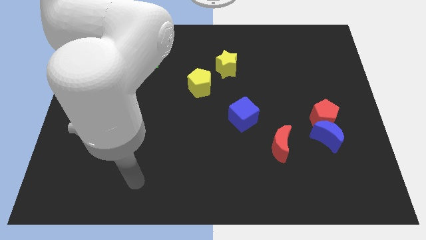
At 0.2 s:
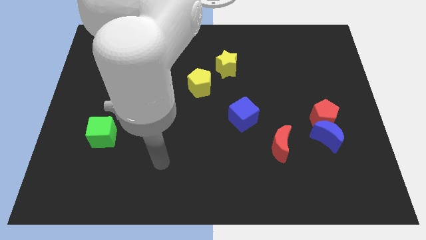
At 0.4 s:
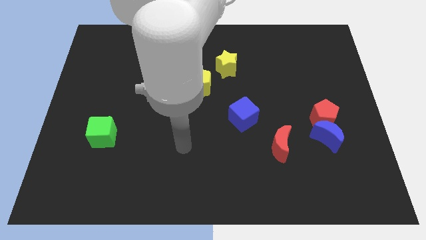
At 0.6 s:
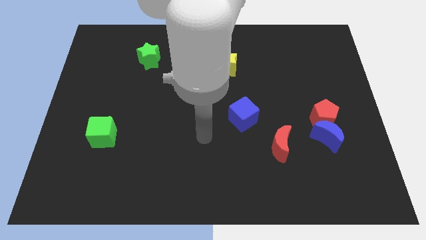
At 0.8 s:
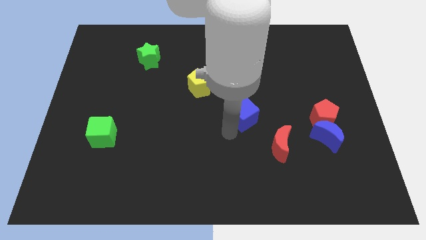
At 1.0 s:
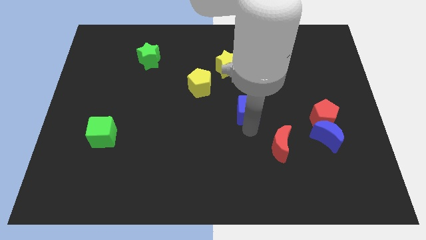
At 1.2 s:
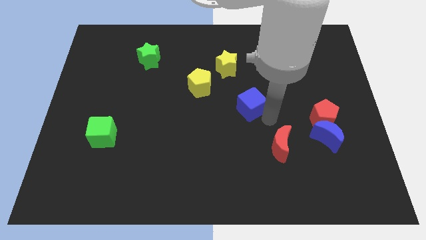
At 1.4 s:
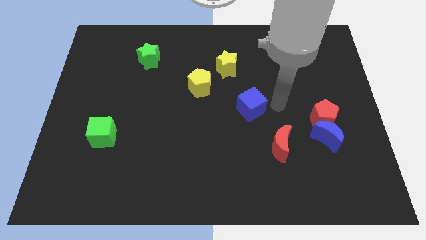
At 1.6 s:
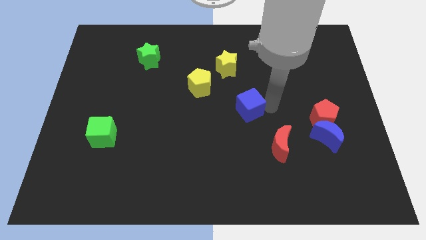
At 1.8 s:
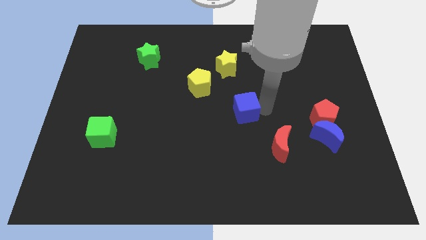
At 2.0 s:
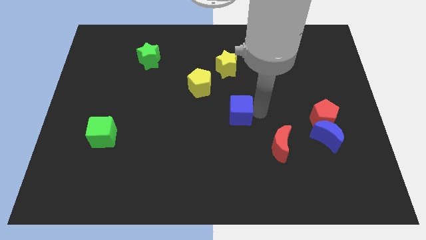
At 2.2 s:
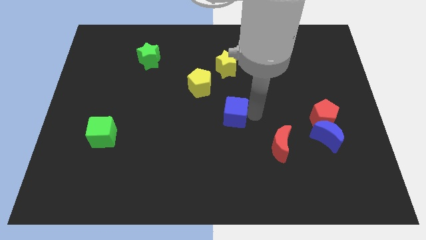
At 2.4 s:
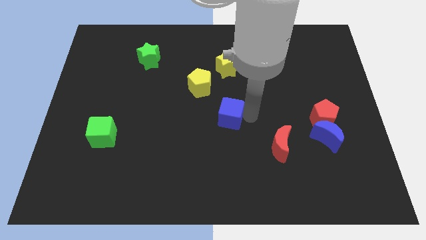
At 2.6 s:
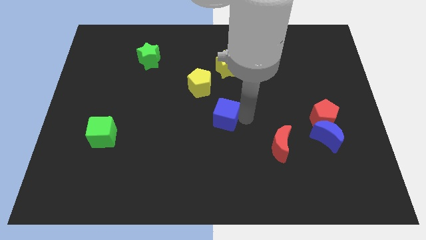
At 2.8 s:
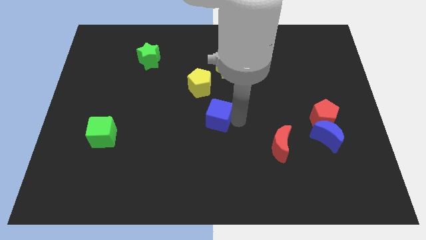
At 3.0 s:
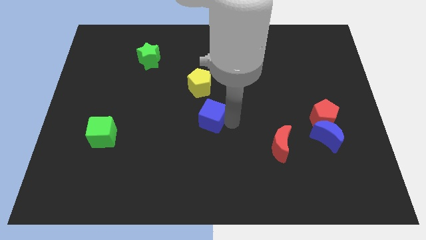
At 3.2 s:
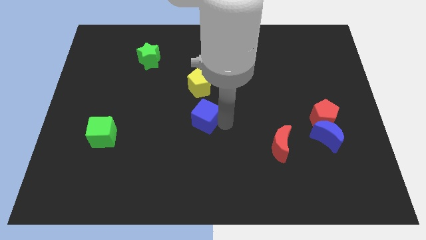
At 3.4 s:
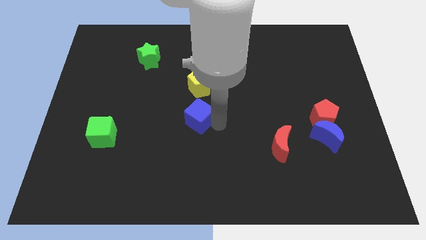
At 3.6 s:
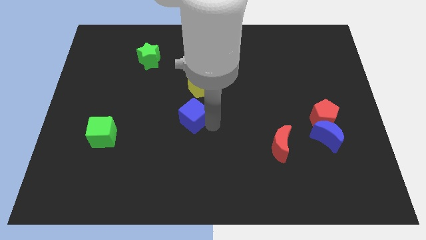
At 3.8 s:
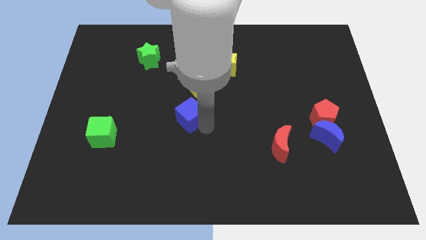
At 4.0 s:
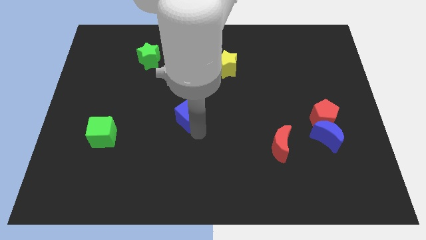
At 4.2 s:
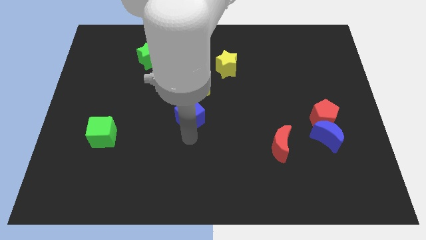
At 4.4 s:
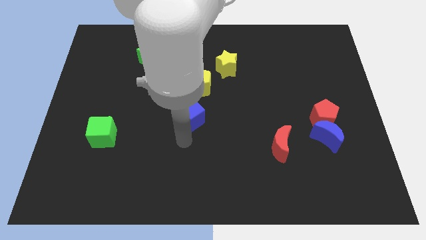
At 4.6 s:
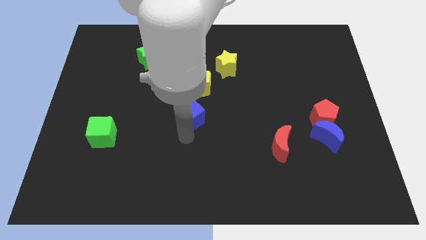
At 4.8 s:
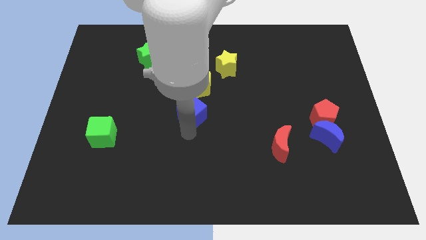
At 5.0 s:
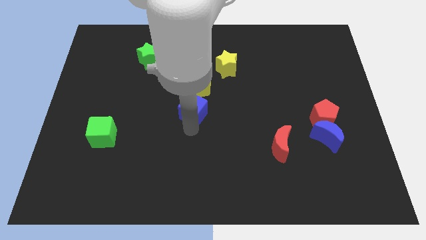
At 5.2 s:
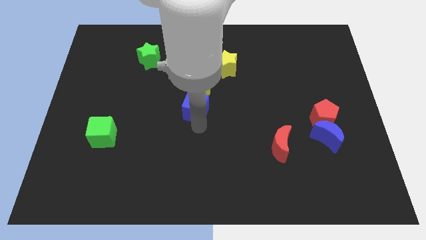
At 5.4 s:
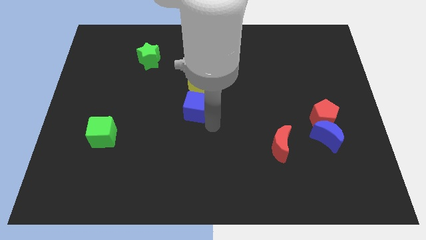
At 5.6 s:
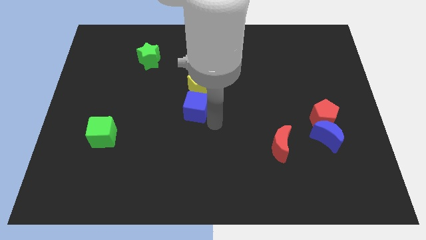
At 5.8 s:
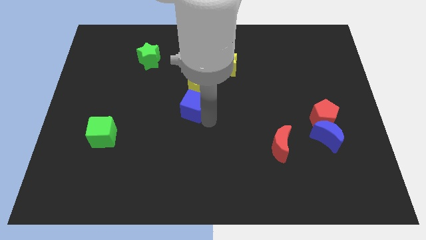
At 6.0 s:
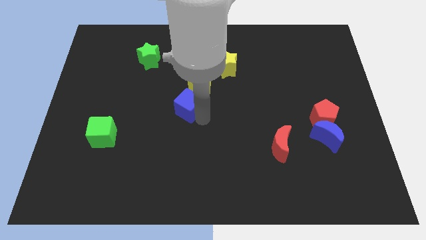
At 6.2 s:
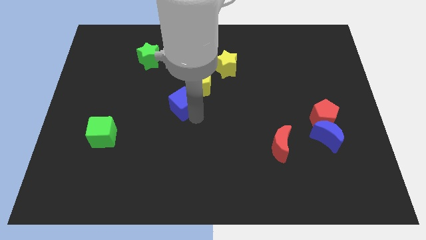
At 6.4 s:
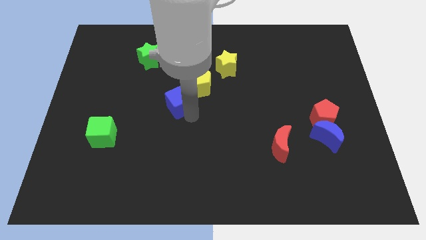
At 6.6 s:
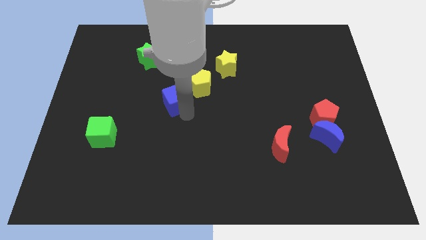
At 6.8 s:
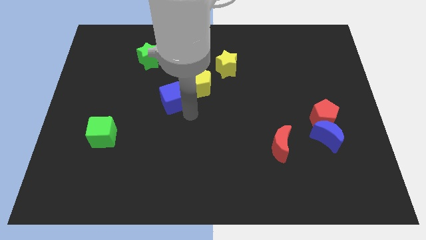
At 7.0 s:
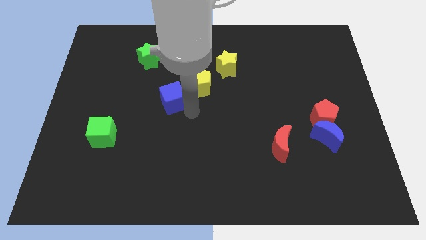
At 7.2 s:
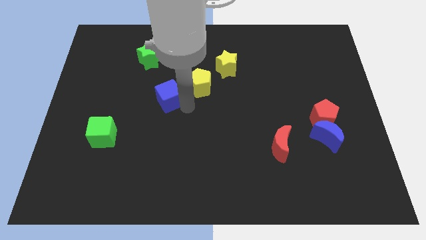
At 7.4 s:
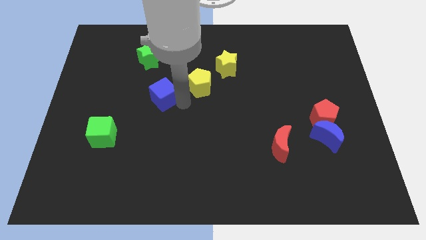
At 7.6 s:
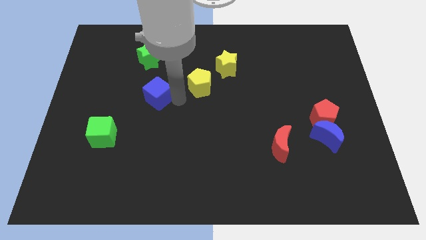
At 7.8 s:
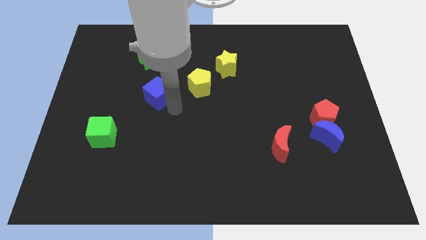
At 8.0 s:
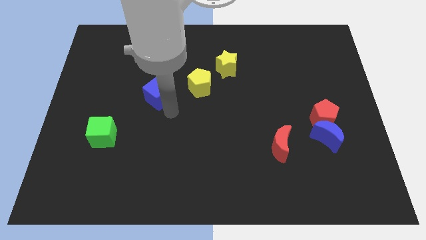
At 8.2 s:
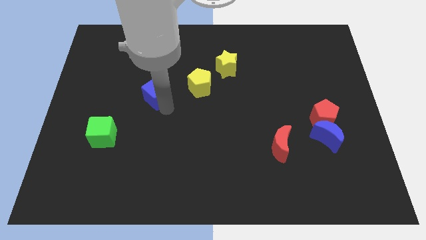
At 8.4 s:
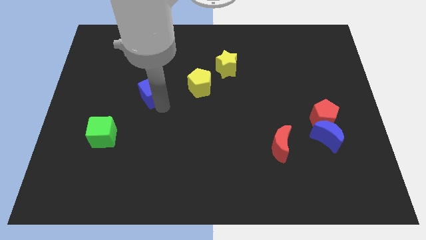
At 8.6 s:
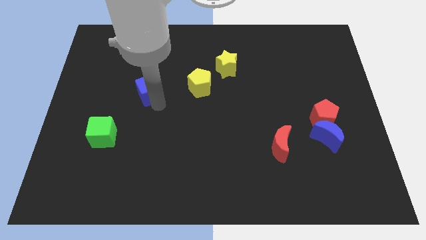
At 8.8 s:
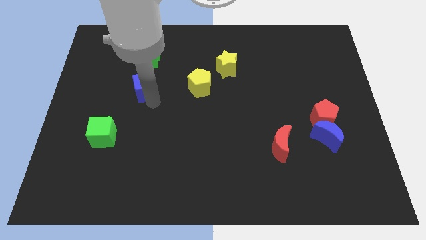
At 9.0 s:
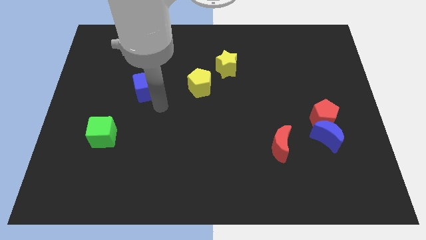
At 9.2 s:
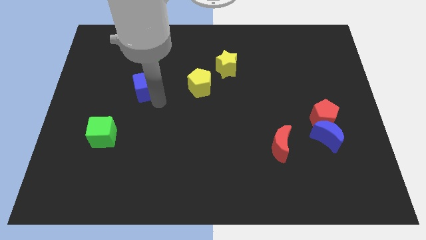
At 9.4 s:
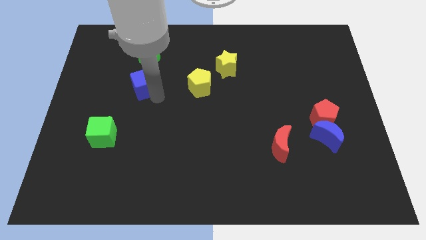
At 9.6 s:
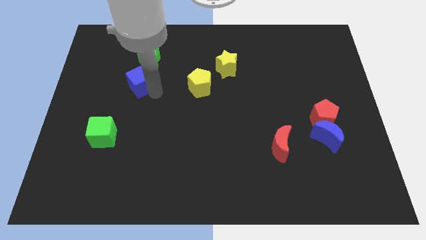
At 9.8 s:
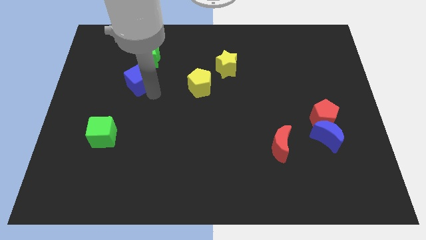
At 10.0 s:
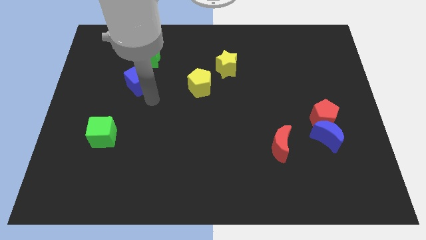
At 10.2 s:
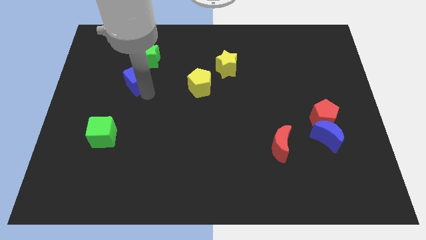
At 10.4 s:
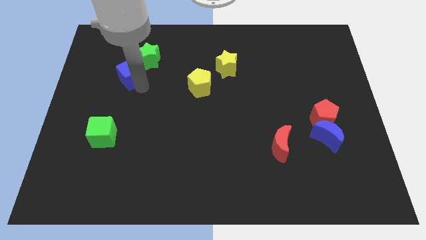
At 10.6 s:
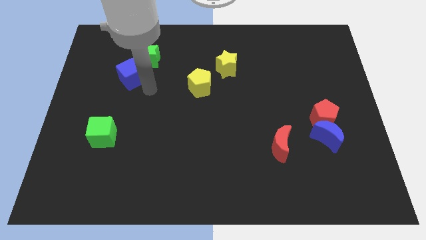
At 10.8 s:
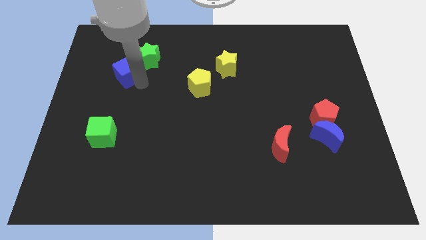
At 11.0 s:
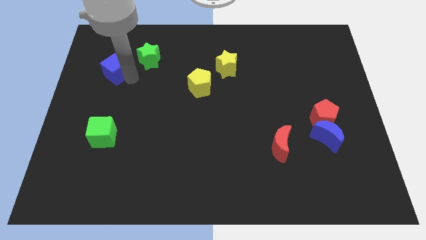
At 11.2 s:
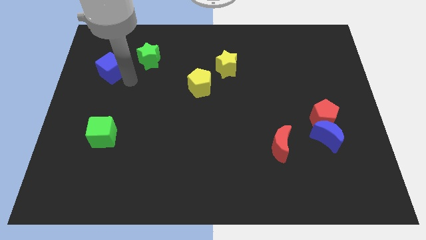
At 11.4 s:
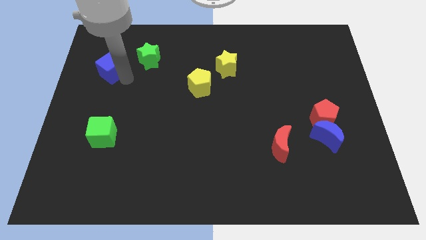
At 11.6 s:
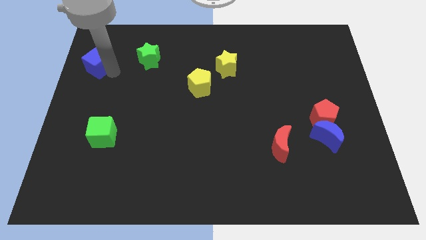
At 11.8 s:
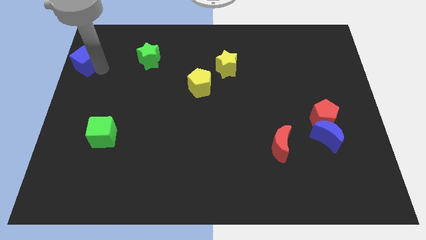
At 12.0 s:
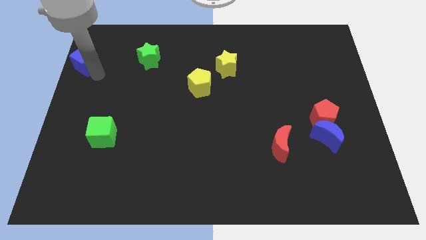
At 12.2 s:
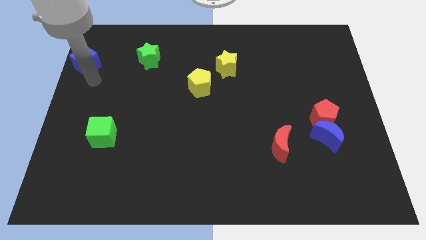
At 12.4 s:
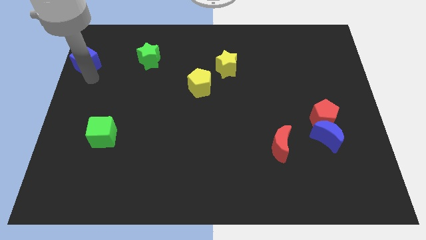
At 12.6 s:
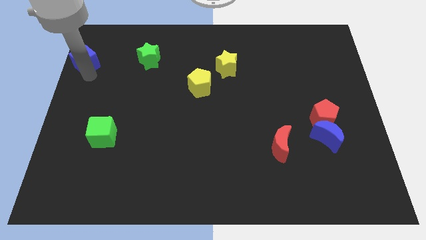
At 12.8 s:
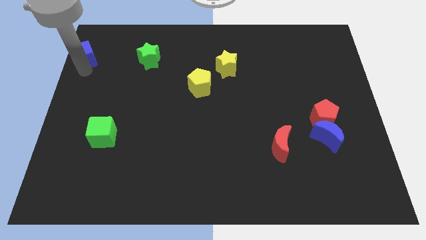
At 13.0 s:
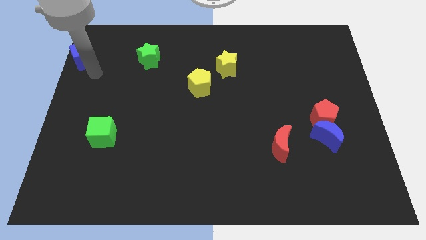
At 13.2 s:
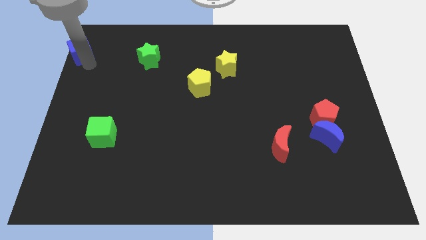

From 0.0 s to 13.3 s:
move the blue cube to the top left corner
